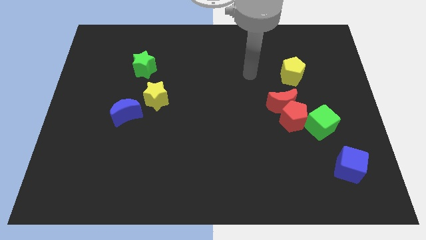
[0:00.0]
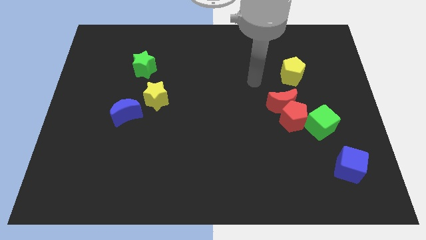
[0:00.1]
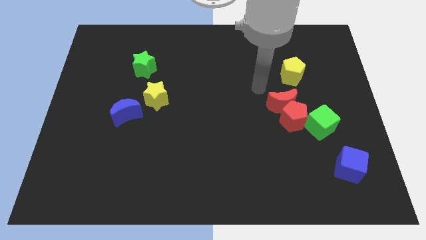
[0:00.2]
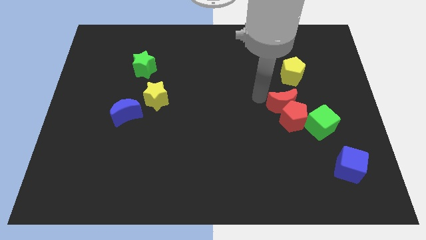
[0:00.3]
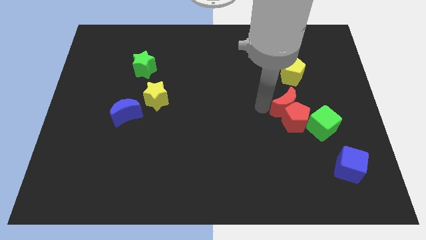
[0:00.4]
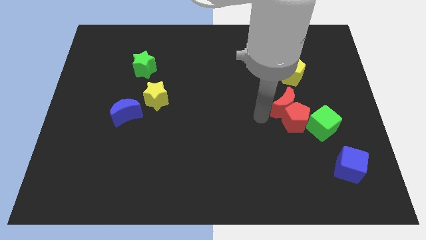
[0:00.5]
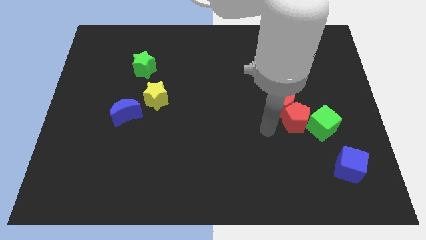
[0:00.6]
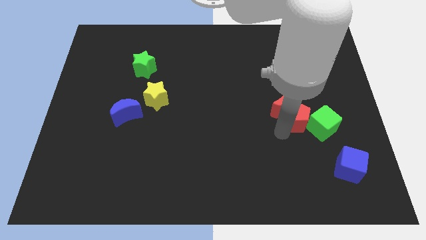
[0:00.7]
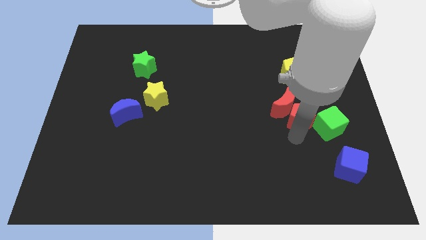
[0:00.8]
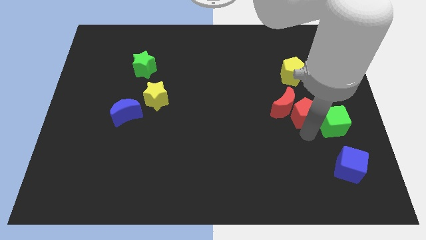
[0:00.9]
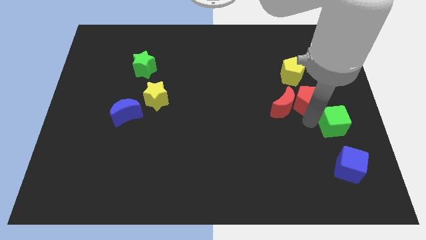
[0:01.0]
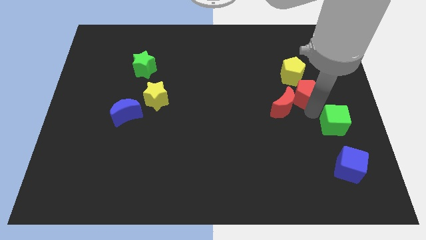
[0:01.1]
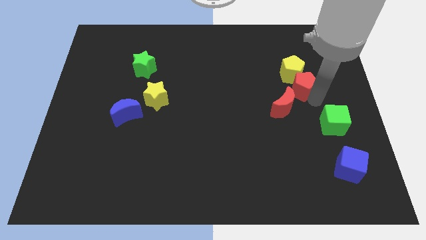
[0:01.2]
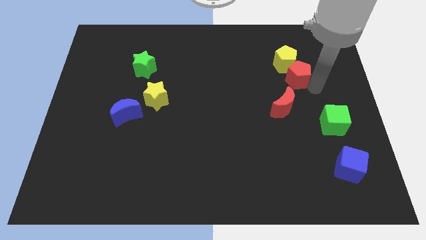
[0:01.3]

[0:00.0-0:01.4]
separate the red pentagon from the red moon and green cube

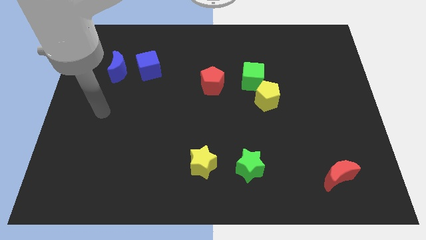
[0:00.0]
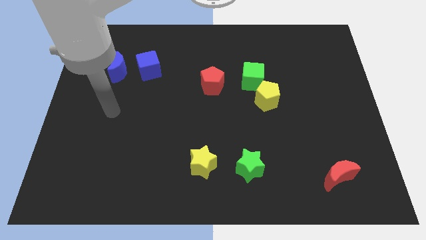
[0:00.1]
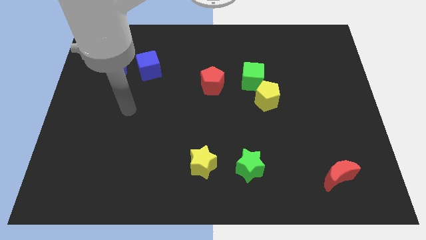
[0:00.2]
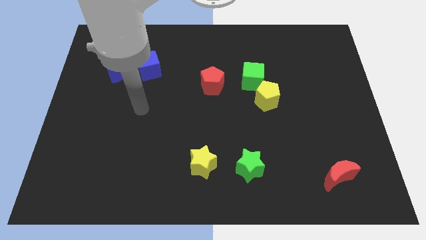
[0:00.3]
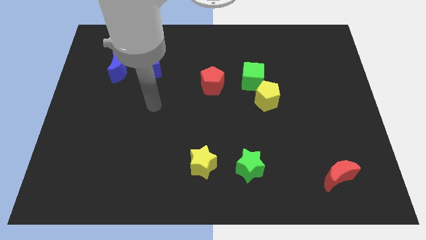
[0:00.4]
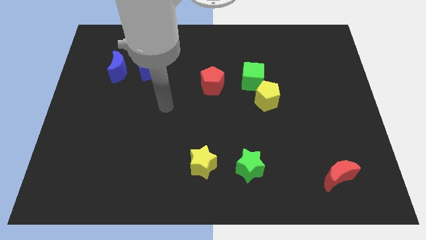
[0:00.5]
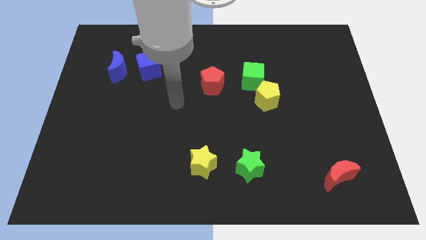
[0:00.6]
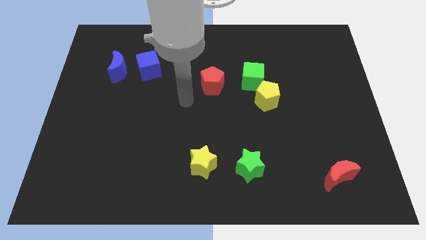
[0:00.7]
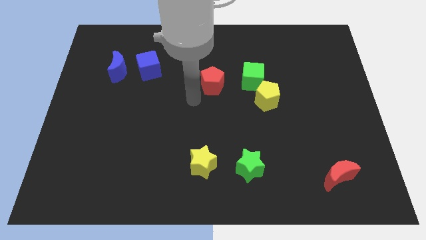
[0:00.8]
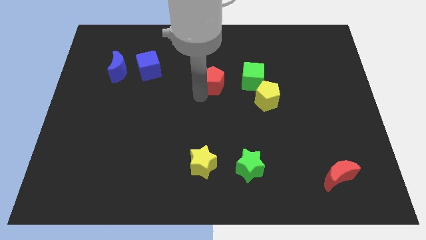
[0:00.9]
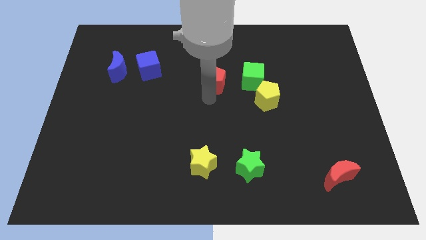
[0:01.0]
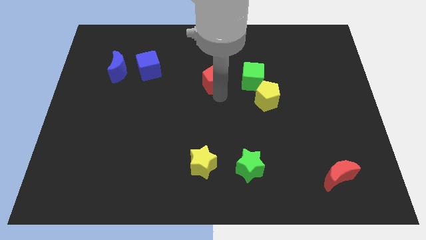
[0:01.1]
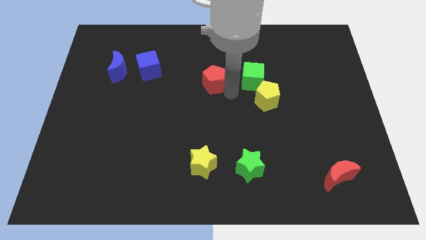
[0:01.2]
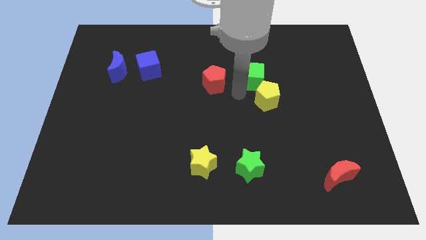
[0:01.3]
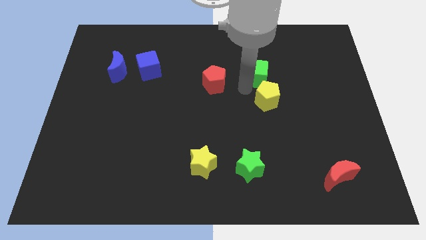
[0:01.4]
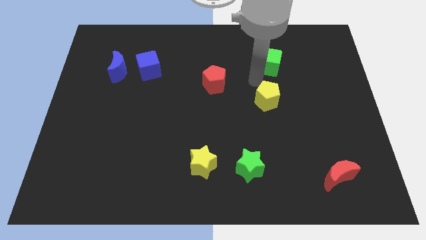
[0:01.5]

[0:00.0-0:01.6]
separate the yellow pentagon from the green cube

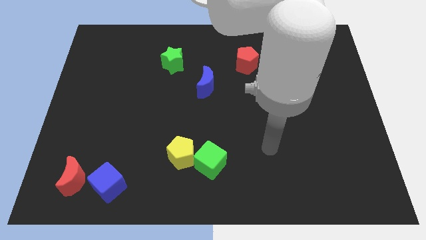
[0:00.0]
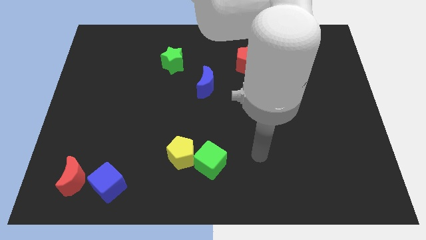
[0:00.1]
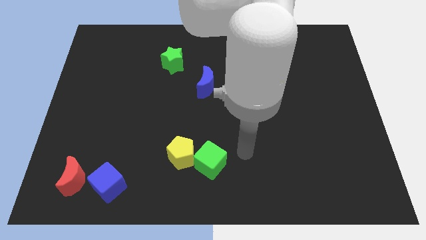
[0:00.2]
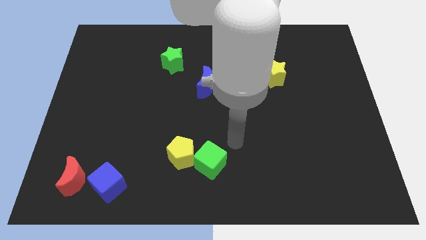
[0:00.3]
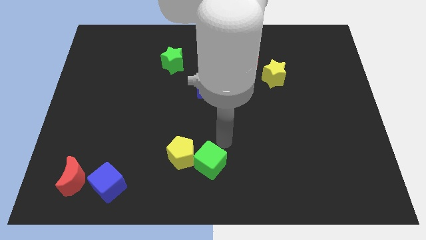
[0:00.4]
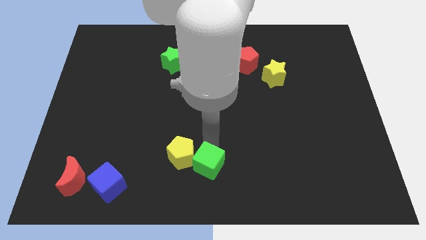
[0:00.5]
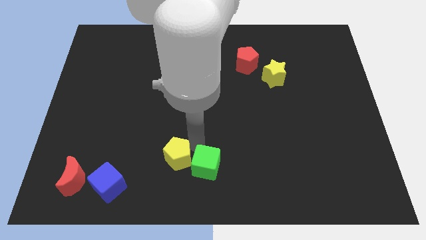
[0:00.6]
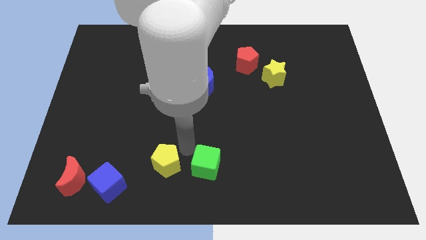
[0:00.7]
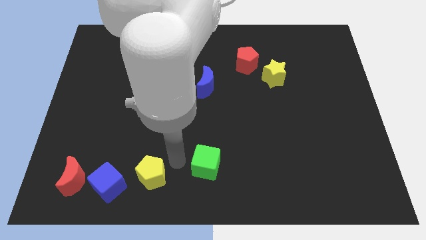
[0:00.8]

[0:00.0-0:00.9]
pull the green cube apart from the yellow pentagon

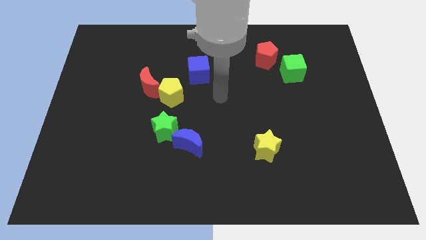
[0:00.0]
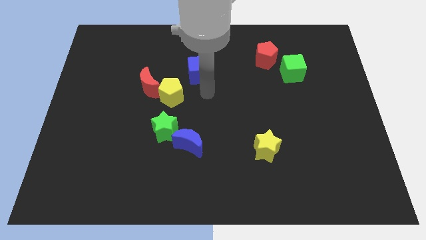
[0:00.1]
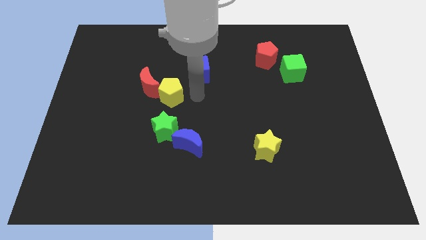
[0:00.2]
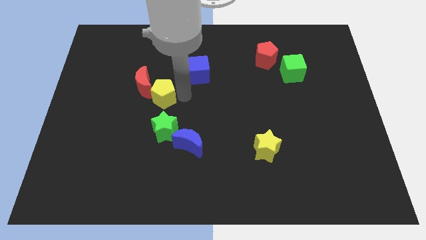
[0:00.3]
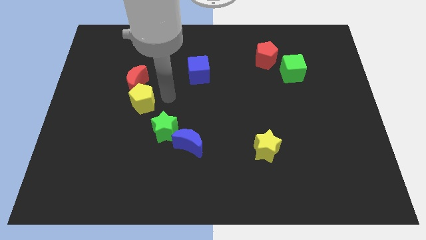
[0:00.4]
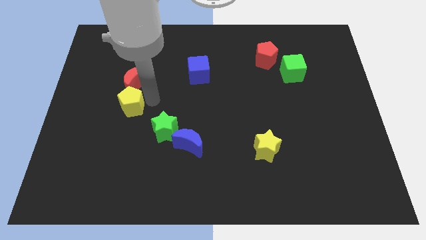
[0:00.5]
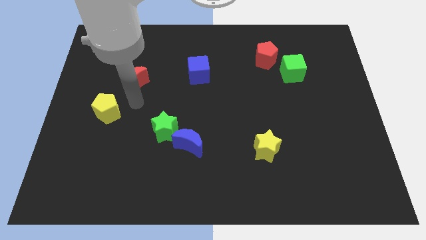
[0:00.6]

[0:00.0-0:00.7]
pull the red moon apart from the yellow pentagon

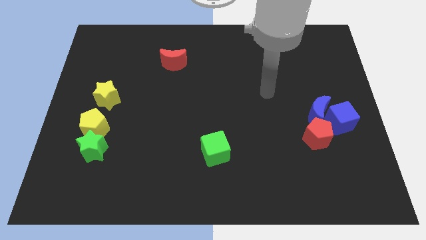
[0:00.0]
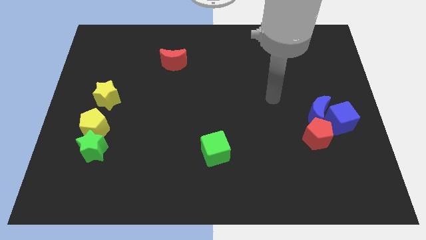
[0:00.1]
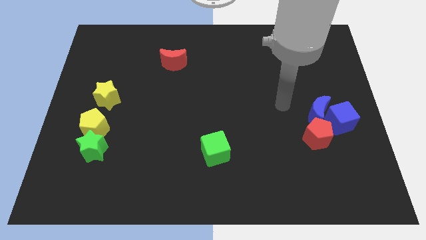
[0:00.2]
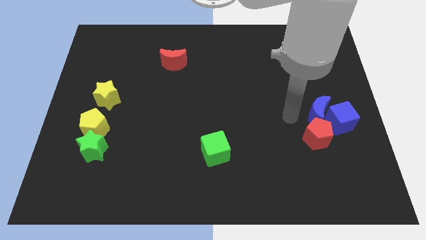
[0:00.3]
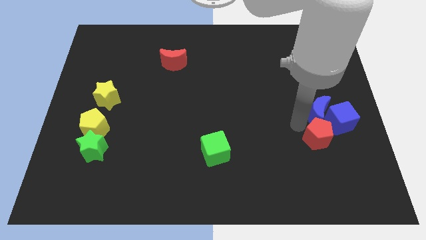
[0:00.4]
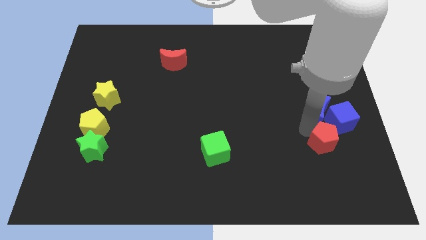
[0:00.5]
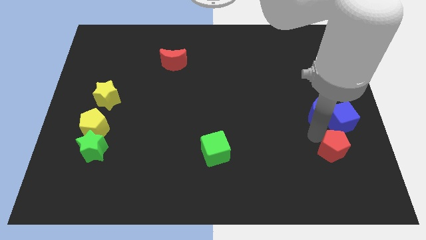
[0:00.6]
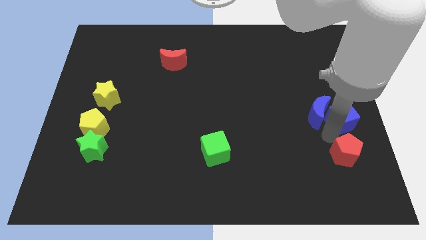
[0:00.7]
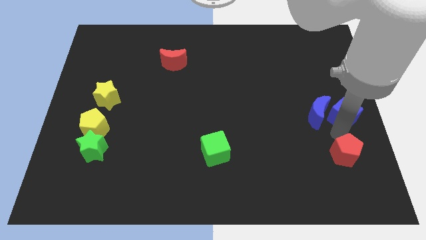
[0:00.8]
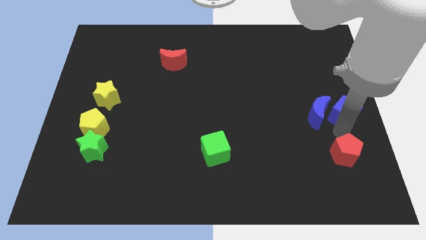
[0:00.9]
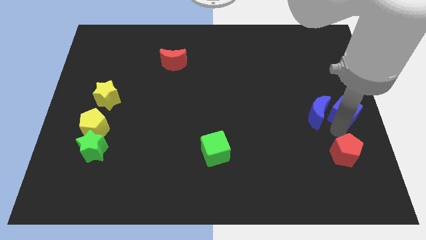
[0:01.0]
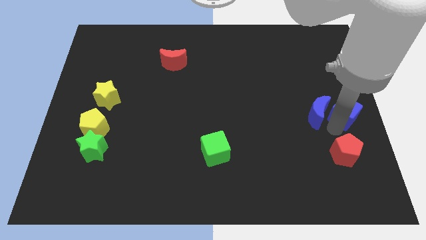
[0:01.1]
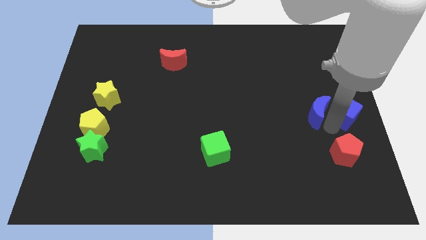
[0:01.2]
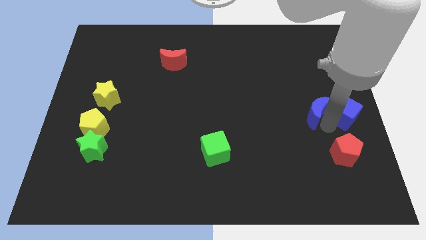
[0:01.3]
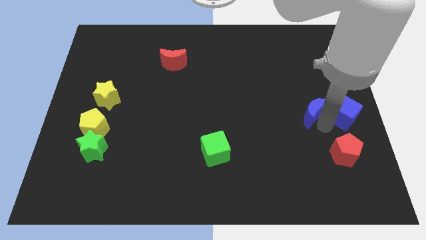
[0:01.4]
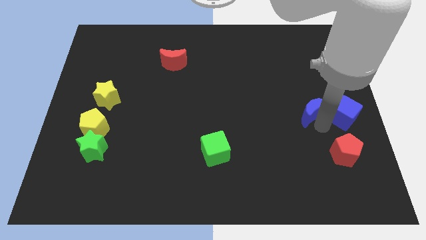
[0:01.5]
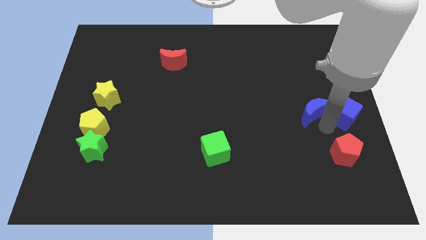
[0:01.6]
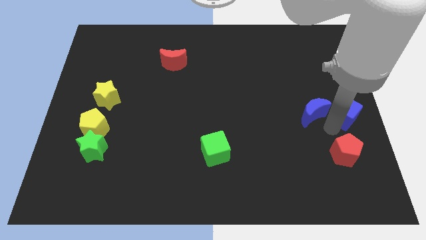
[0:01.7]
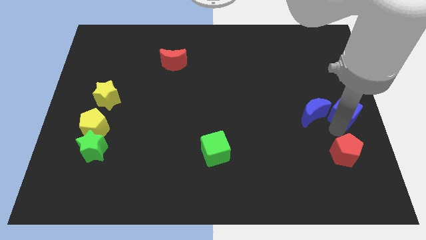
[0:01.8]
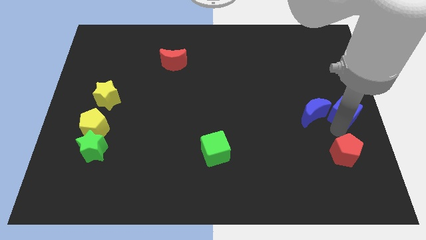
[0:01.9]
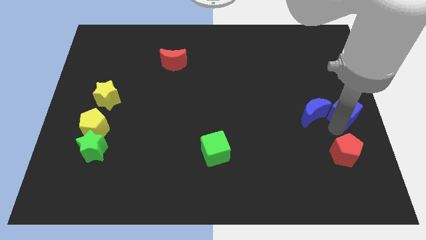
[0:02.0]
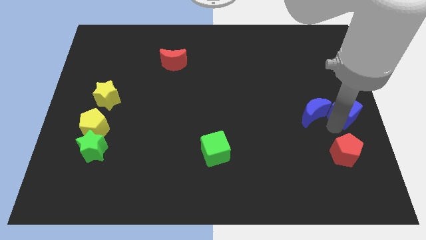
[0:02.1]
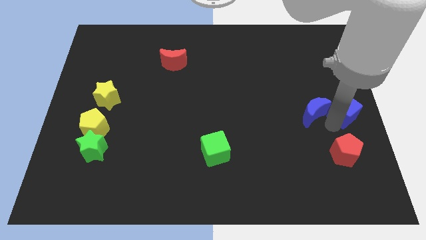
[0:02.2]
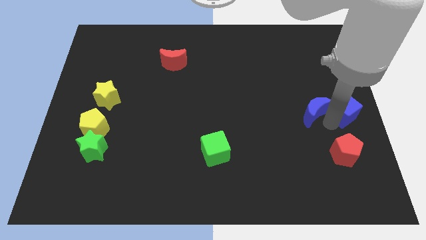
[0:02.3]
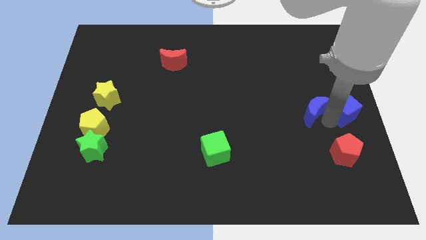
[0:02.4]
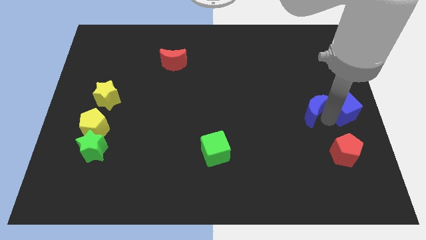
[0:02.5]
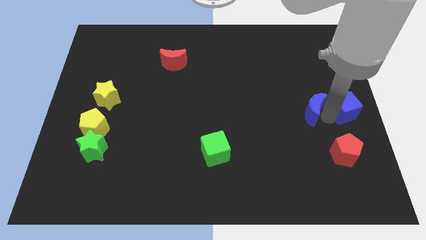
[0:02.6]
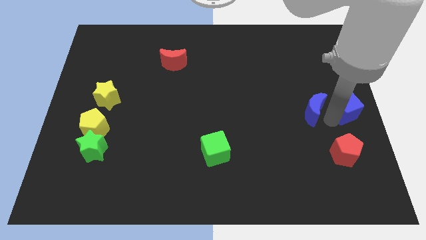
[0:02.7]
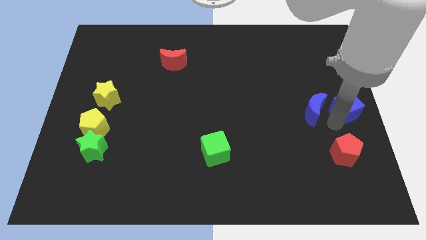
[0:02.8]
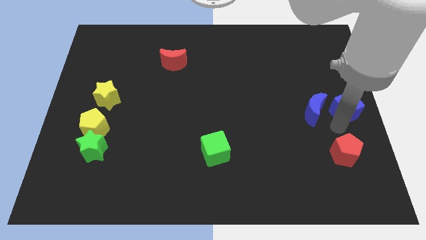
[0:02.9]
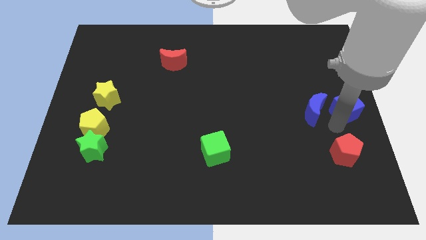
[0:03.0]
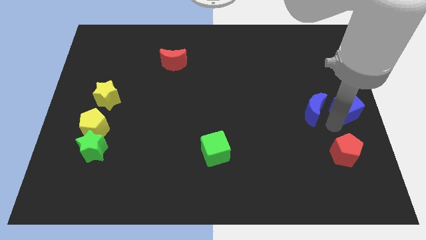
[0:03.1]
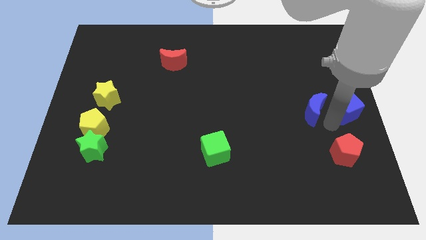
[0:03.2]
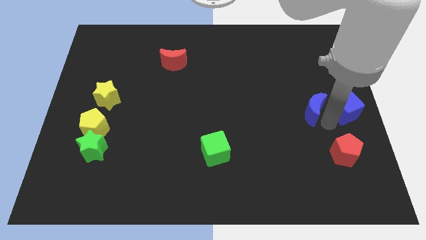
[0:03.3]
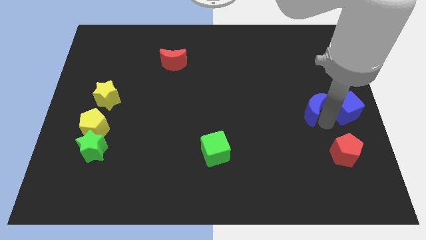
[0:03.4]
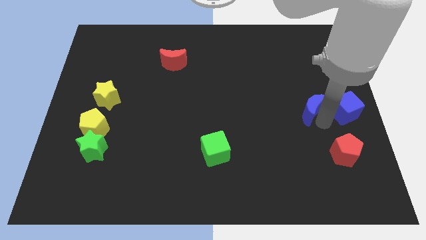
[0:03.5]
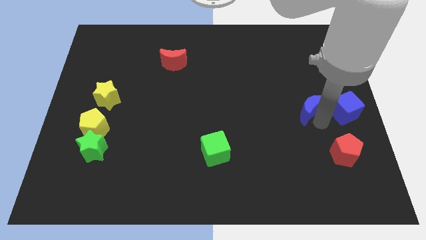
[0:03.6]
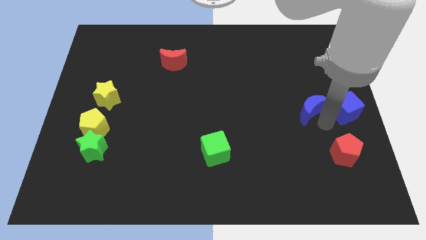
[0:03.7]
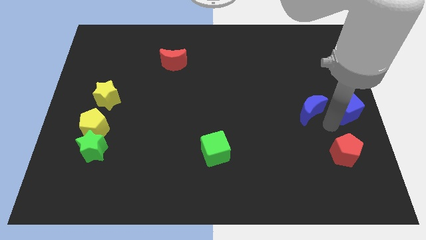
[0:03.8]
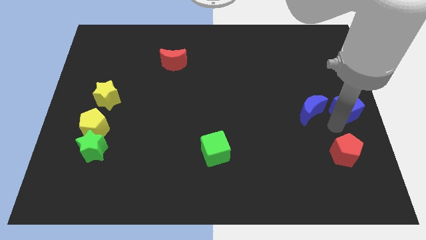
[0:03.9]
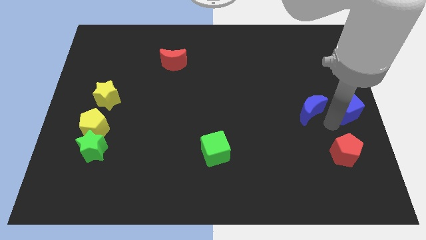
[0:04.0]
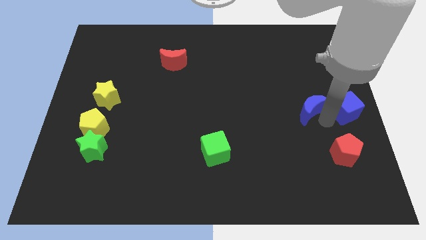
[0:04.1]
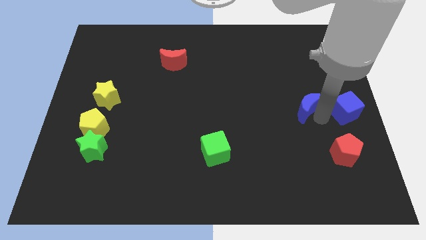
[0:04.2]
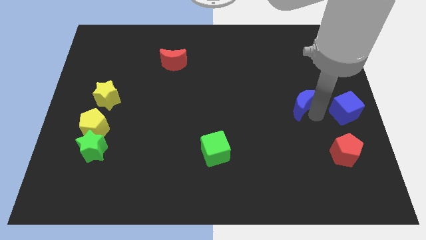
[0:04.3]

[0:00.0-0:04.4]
move the blue moon away from the blue cube and red pentagon

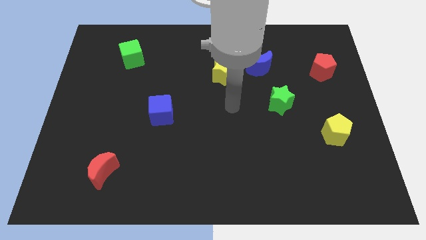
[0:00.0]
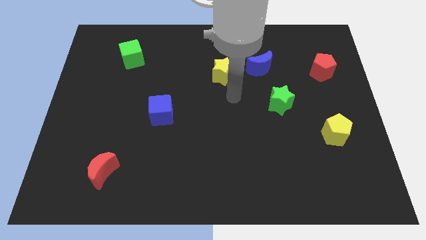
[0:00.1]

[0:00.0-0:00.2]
separate the blue moon from the yellow star
